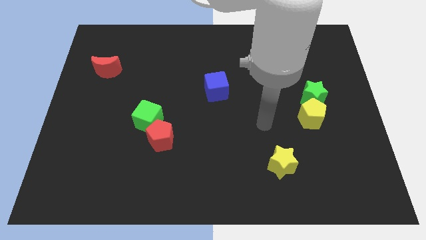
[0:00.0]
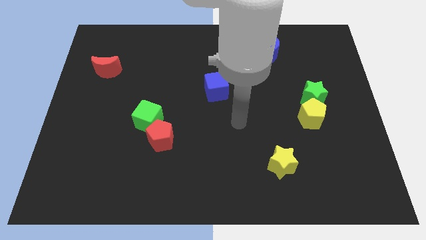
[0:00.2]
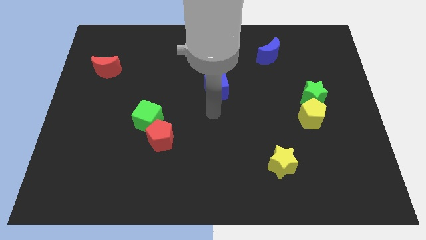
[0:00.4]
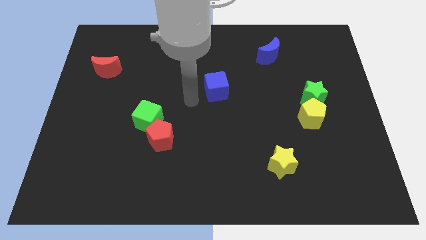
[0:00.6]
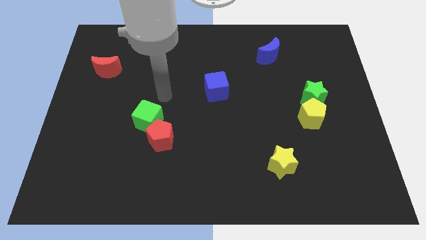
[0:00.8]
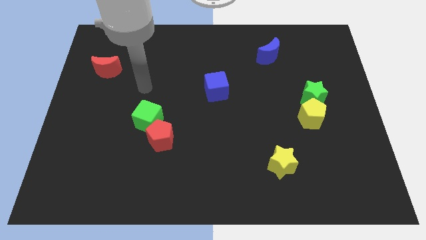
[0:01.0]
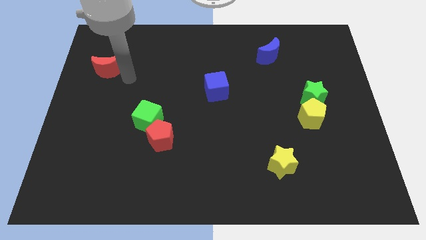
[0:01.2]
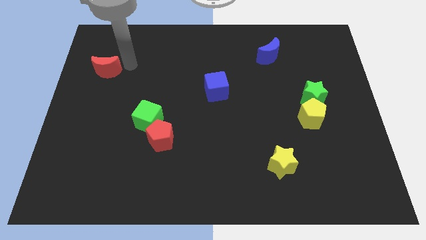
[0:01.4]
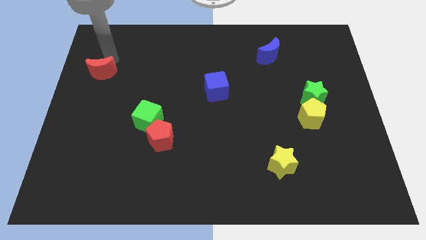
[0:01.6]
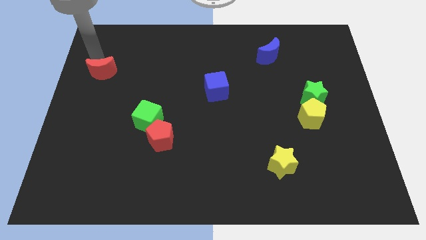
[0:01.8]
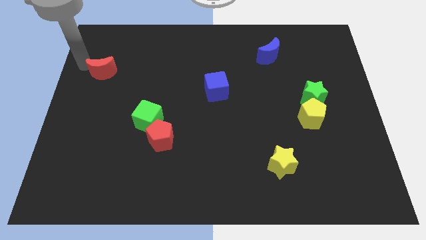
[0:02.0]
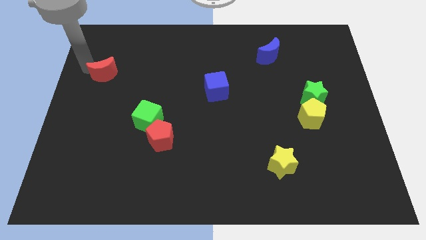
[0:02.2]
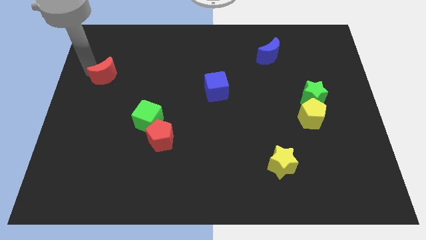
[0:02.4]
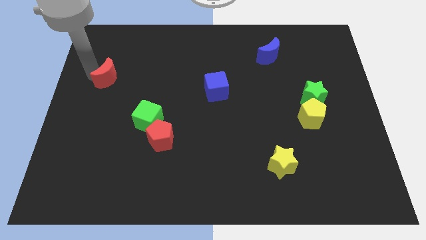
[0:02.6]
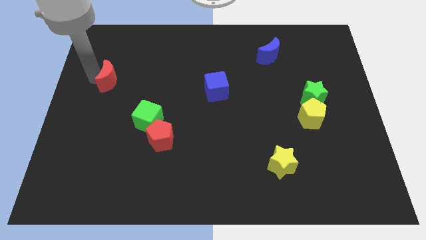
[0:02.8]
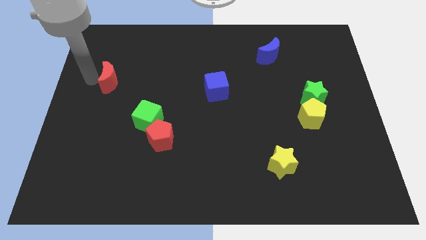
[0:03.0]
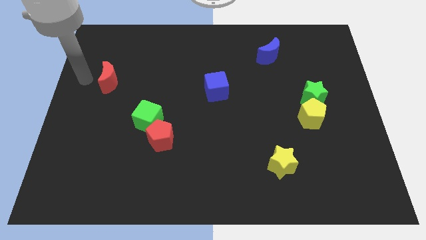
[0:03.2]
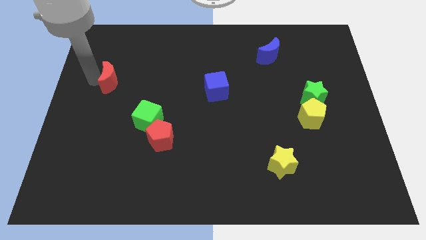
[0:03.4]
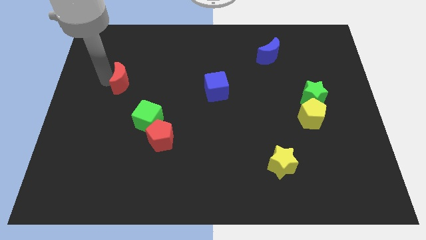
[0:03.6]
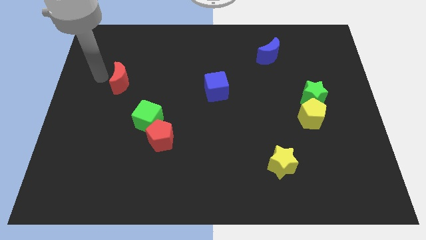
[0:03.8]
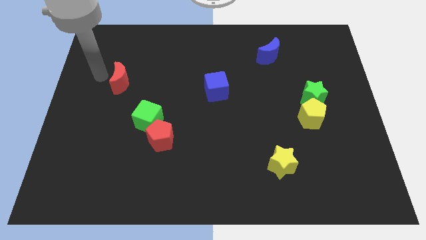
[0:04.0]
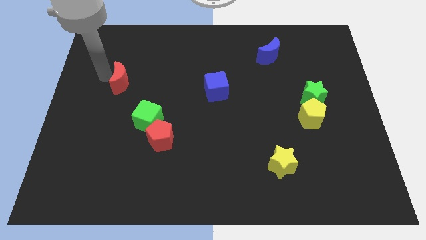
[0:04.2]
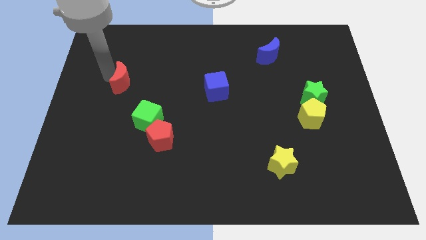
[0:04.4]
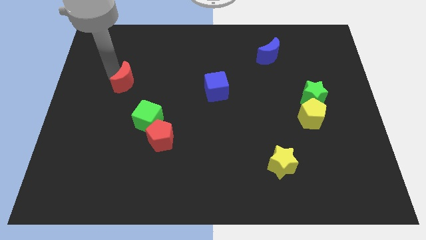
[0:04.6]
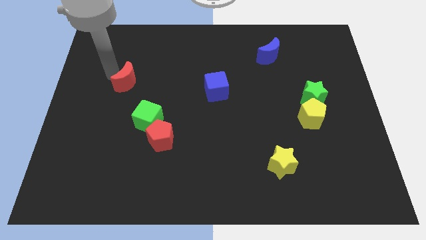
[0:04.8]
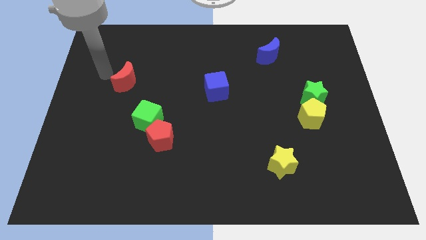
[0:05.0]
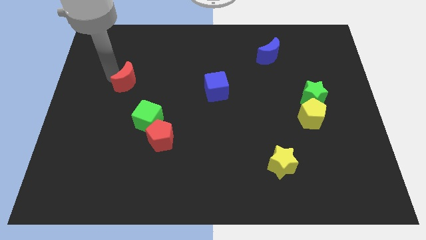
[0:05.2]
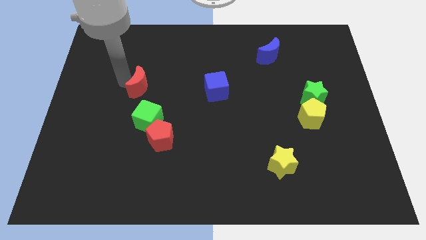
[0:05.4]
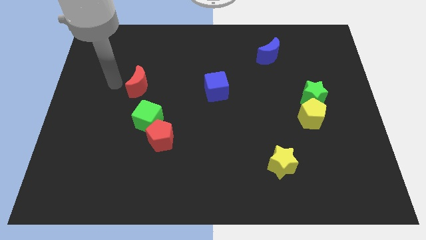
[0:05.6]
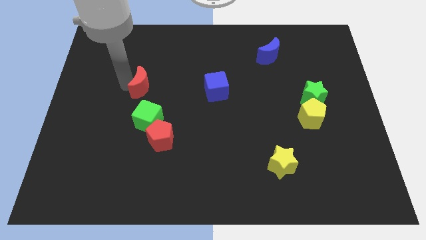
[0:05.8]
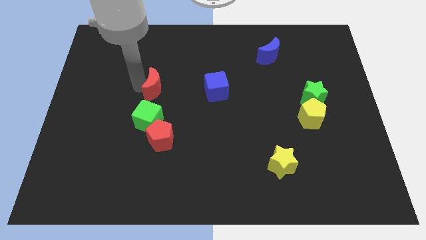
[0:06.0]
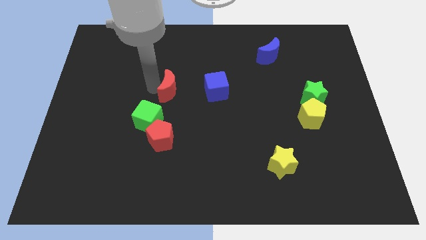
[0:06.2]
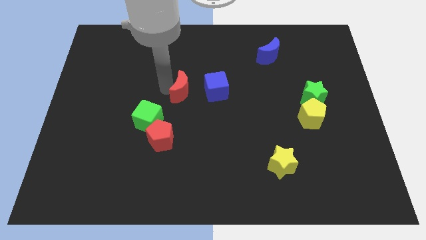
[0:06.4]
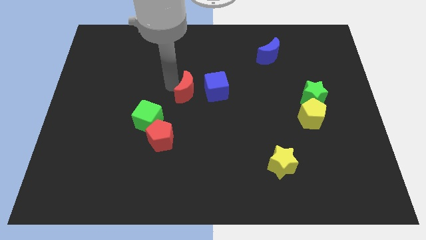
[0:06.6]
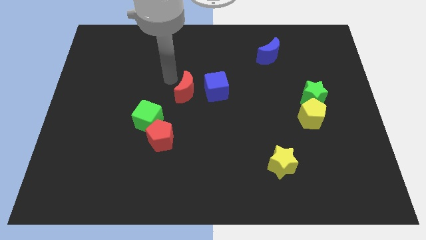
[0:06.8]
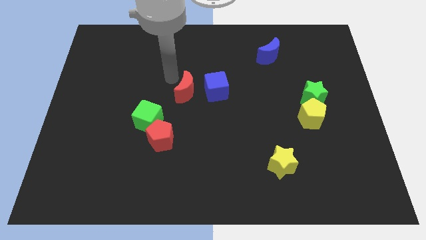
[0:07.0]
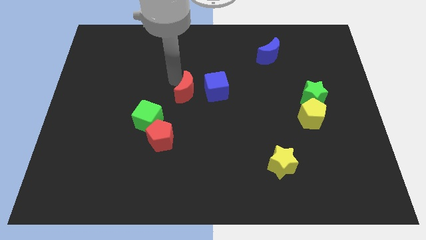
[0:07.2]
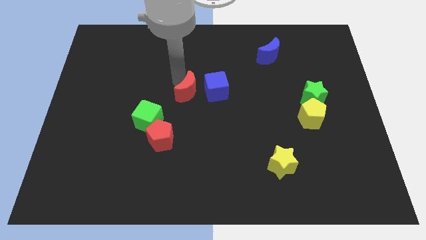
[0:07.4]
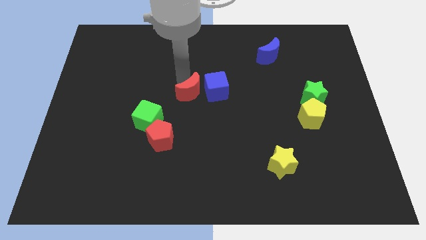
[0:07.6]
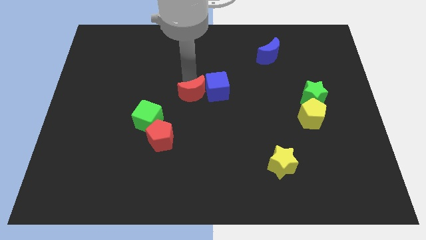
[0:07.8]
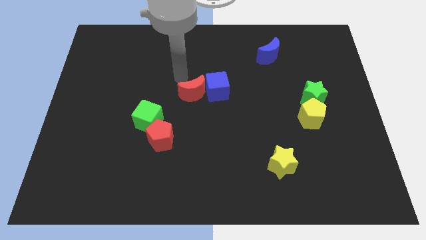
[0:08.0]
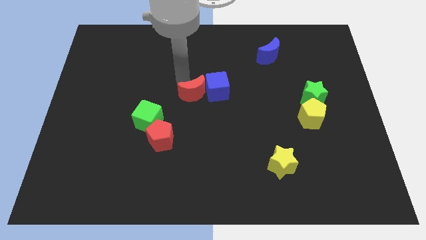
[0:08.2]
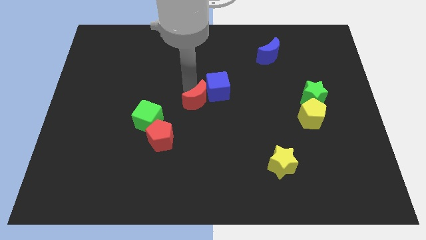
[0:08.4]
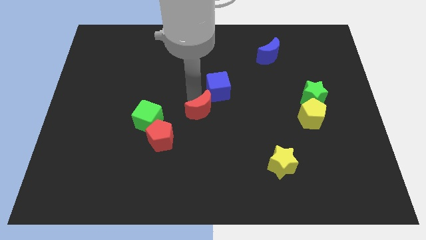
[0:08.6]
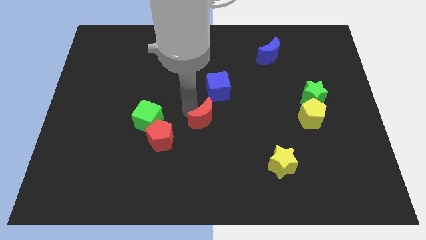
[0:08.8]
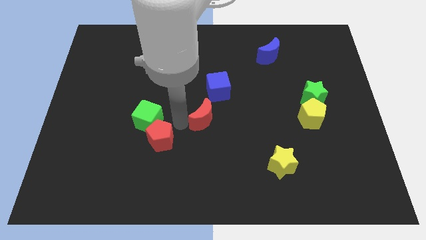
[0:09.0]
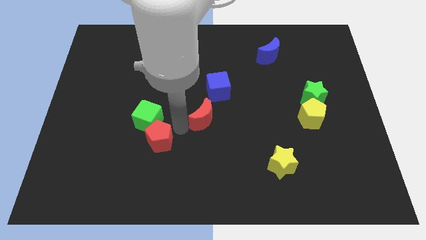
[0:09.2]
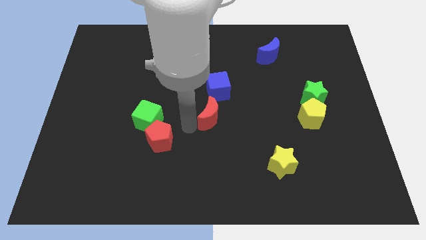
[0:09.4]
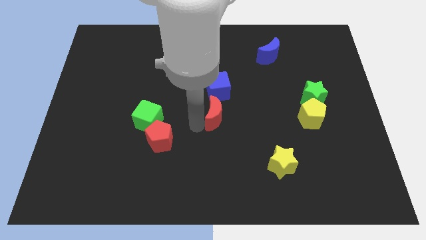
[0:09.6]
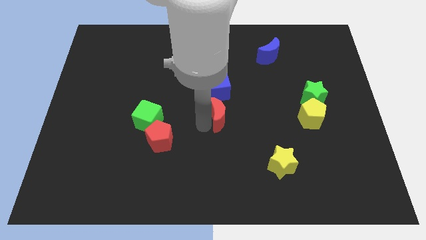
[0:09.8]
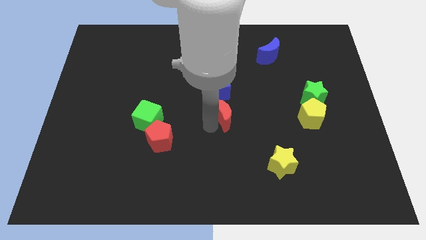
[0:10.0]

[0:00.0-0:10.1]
put the red moon to the bottom right of the blue cube

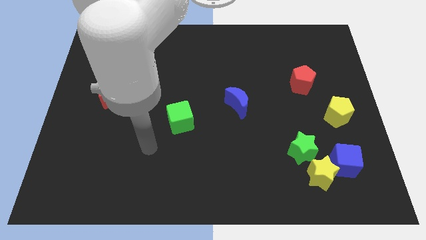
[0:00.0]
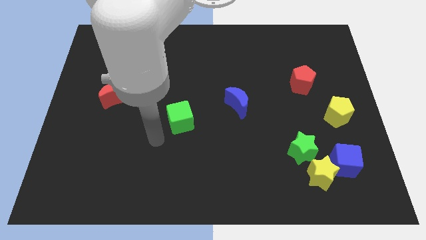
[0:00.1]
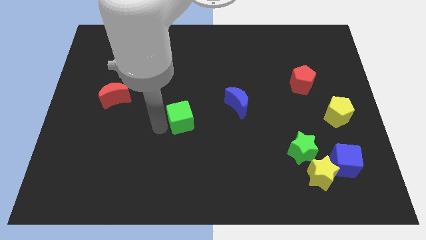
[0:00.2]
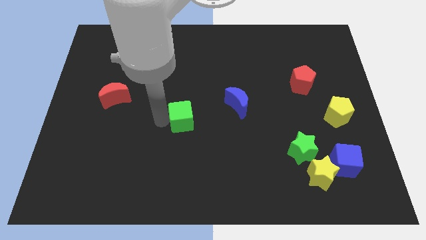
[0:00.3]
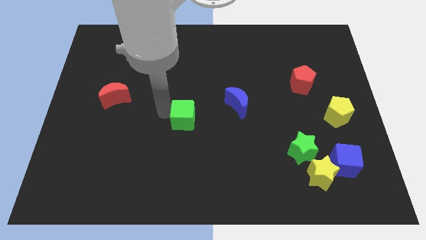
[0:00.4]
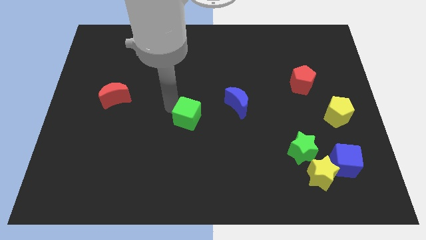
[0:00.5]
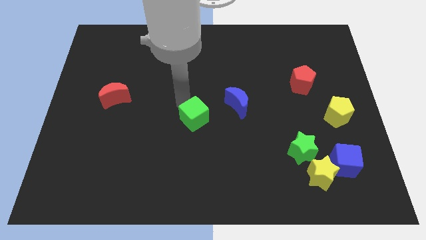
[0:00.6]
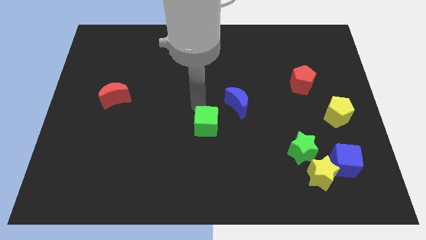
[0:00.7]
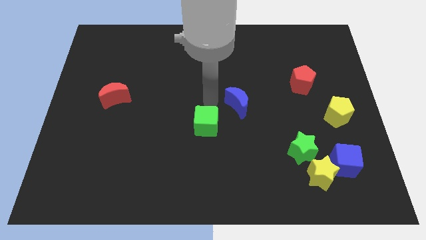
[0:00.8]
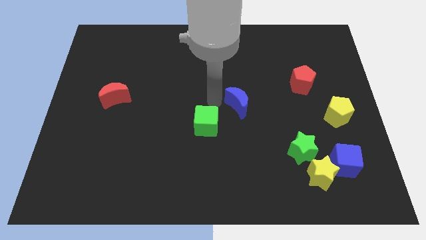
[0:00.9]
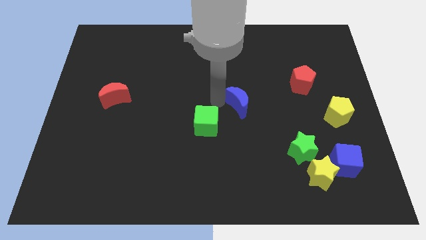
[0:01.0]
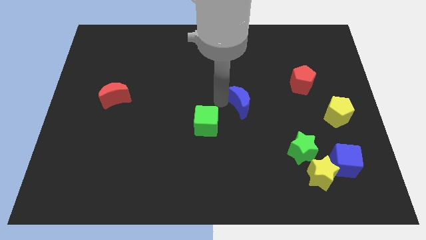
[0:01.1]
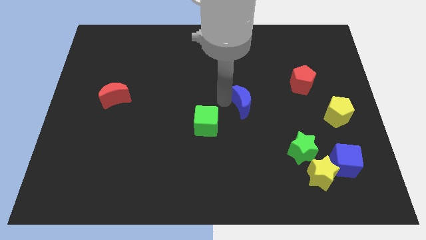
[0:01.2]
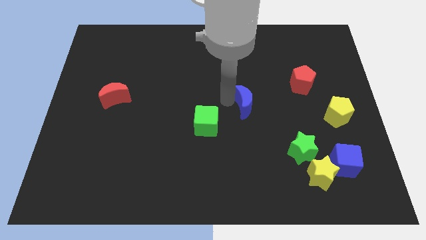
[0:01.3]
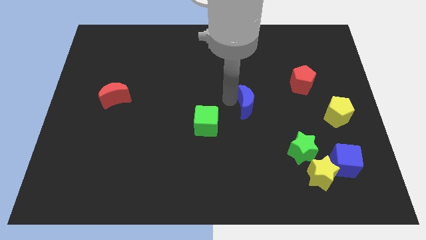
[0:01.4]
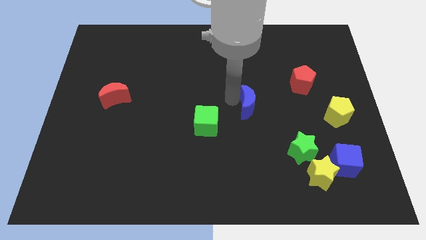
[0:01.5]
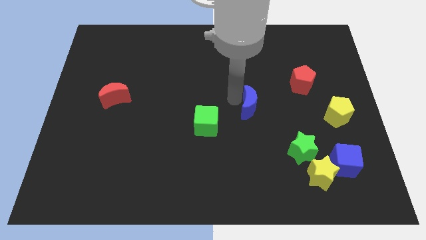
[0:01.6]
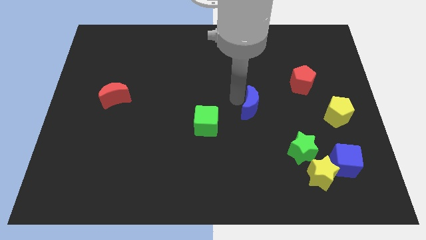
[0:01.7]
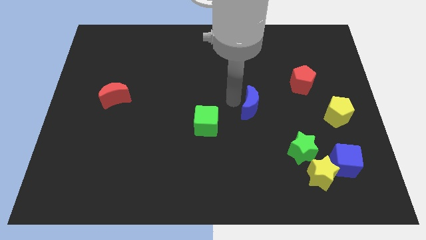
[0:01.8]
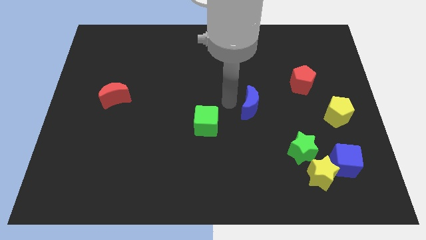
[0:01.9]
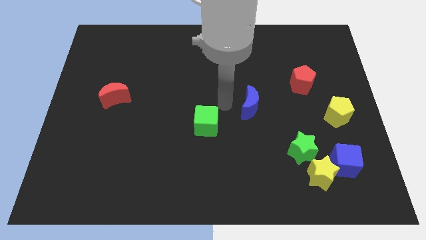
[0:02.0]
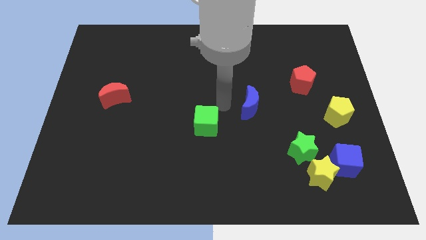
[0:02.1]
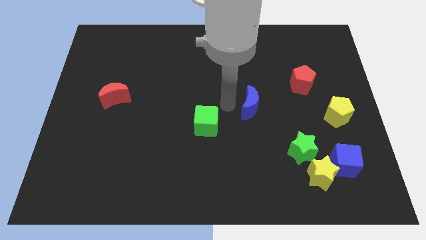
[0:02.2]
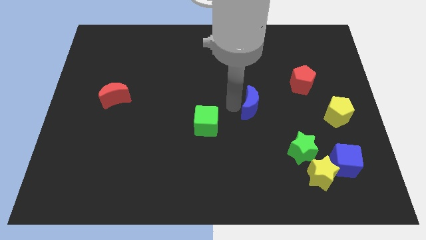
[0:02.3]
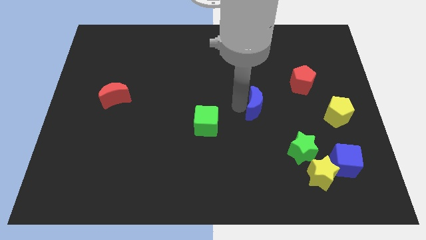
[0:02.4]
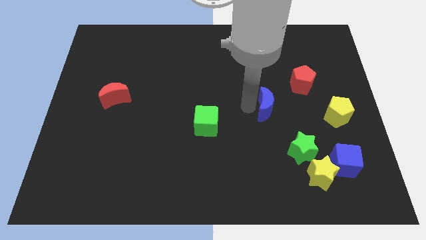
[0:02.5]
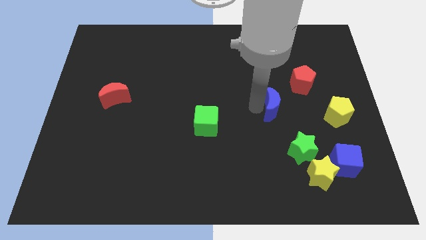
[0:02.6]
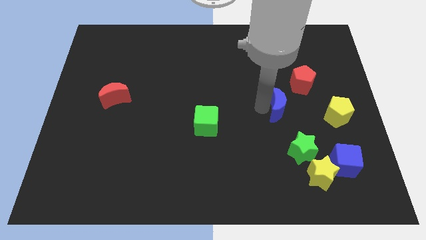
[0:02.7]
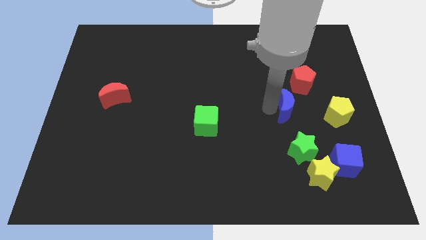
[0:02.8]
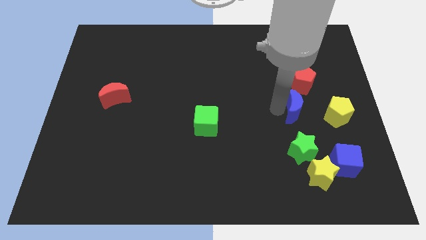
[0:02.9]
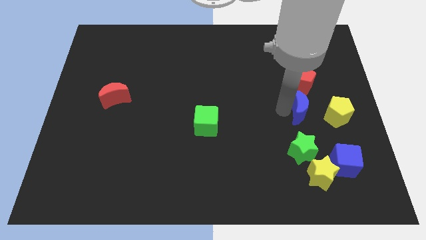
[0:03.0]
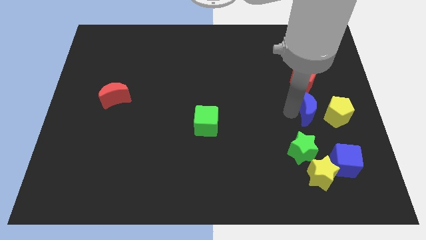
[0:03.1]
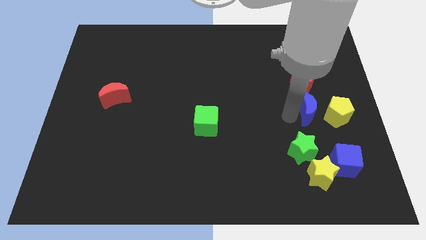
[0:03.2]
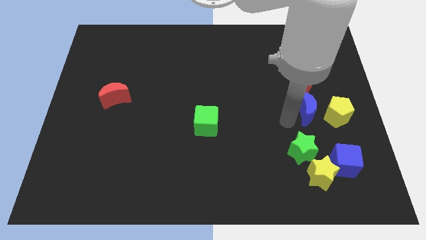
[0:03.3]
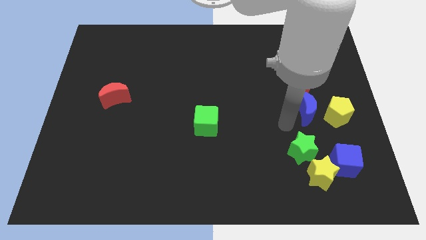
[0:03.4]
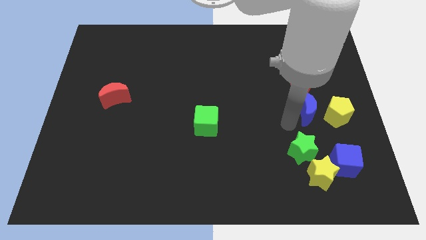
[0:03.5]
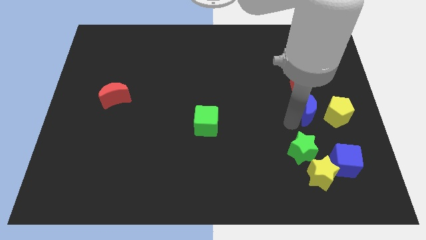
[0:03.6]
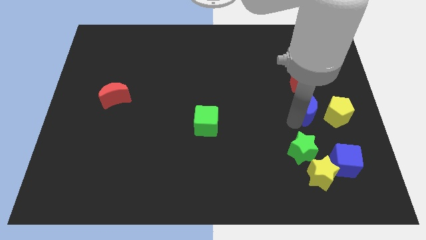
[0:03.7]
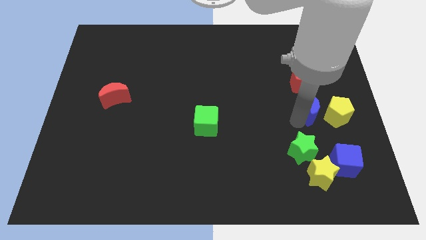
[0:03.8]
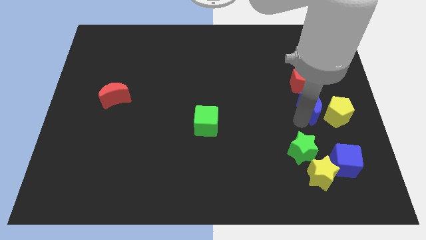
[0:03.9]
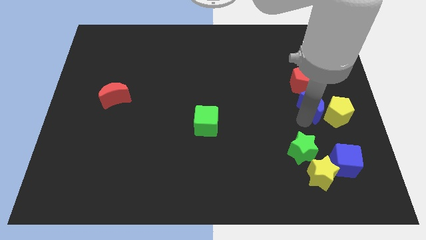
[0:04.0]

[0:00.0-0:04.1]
slide the blue moon diagonally down and to the right of the red pentagon
